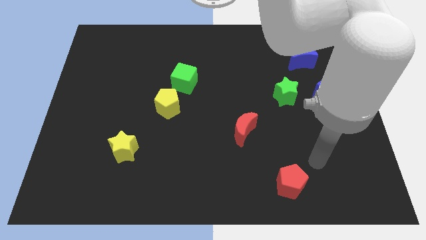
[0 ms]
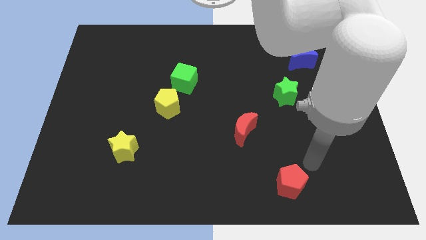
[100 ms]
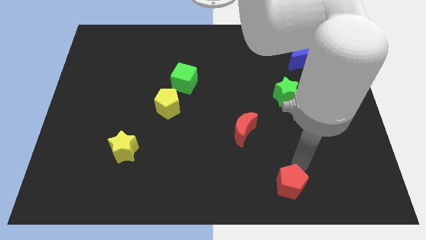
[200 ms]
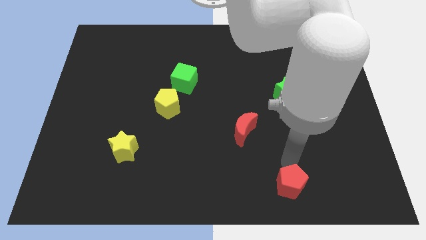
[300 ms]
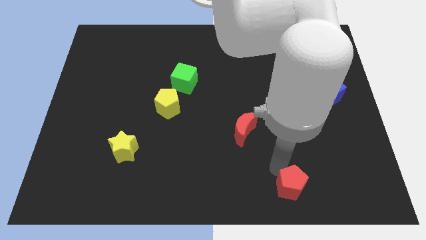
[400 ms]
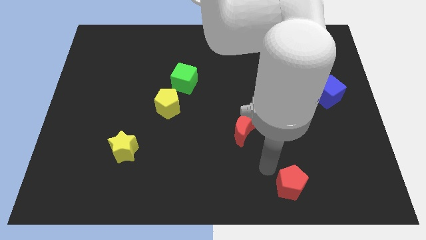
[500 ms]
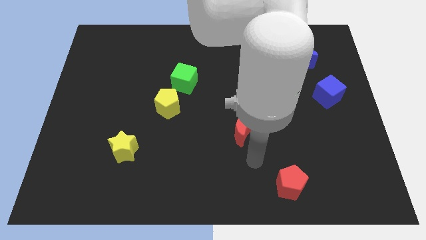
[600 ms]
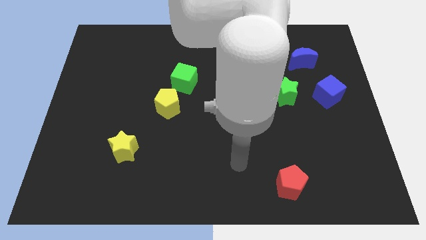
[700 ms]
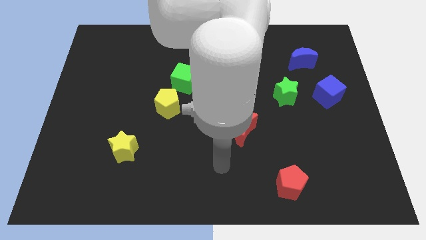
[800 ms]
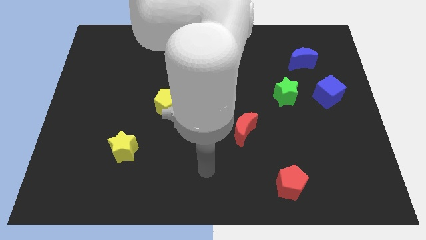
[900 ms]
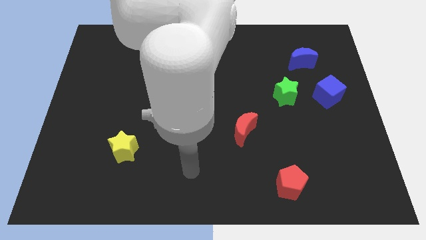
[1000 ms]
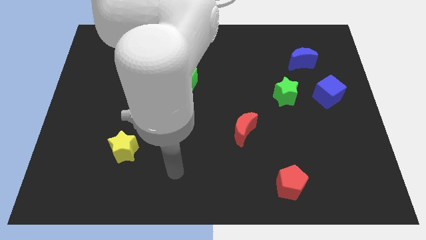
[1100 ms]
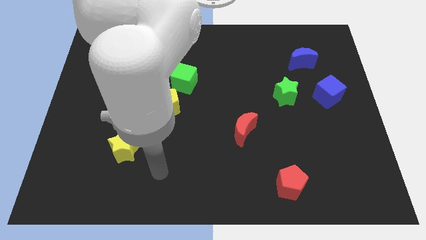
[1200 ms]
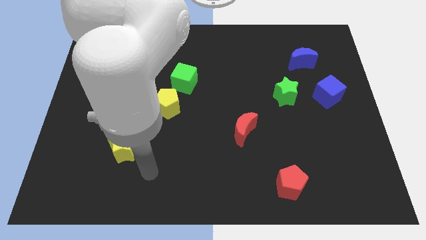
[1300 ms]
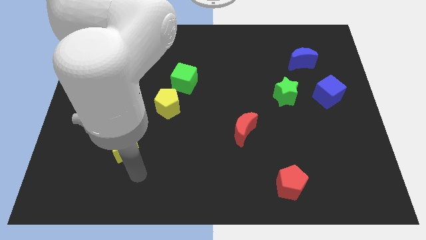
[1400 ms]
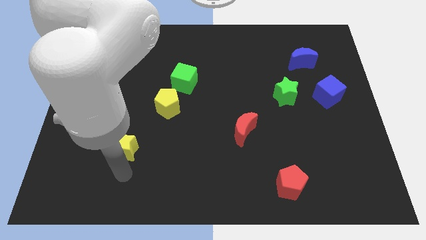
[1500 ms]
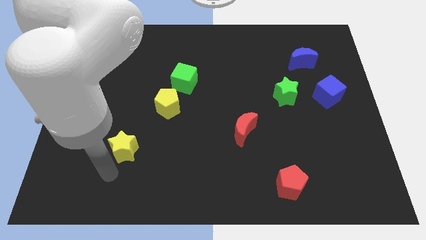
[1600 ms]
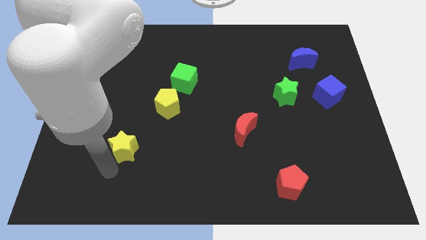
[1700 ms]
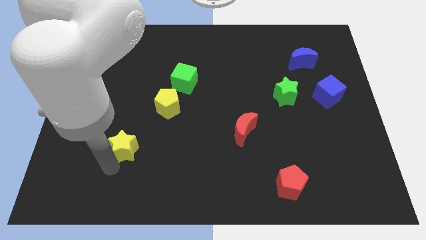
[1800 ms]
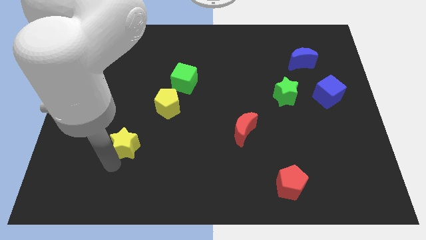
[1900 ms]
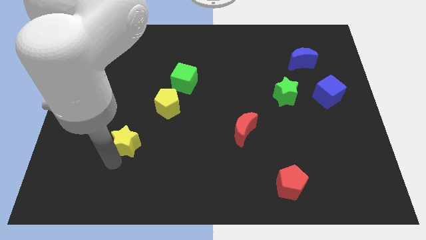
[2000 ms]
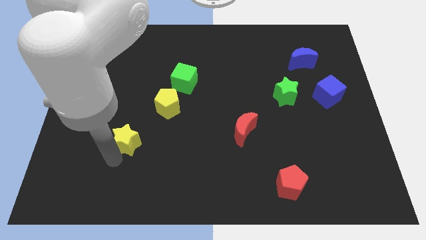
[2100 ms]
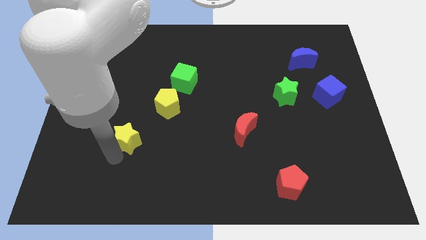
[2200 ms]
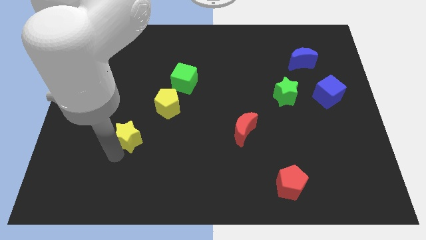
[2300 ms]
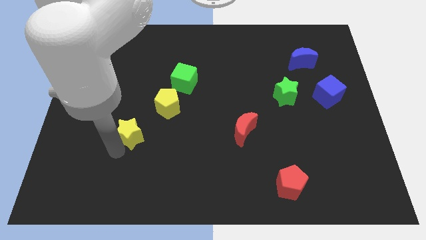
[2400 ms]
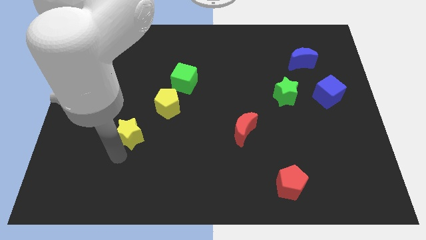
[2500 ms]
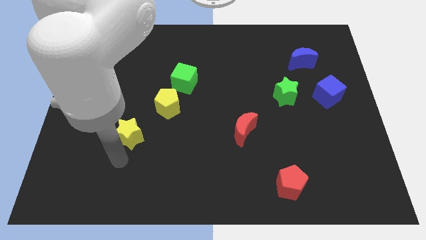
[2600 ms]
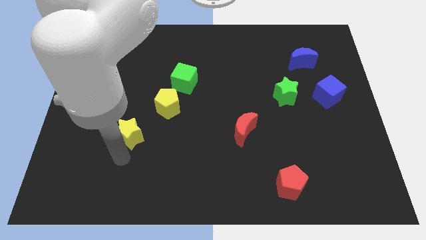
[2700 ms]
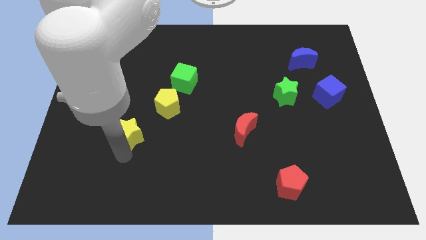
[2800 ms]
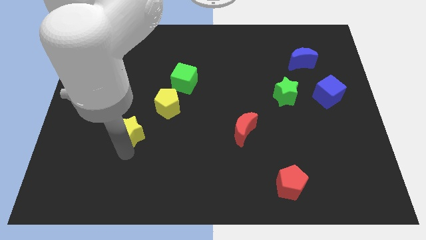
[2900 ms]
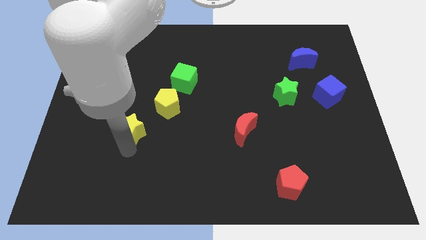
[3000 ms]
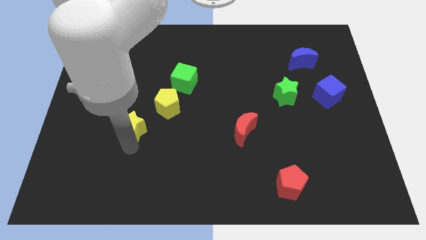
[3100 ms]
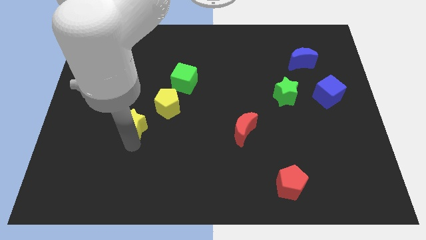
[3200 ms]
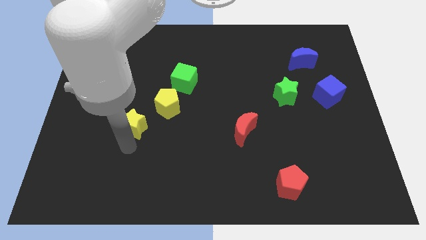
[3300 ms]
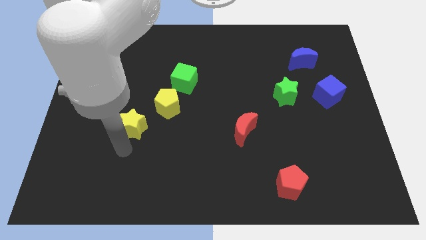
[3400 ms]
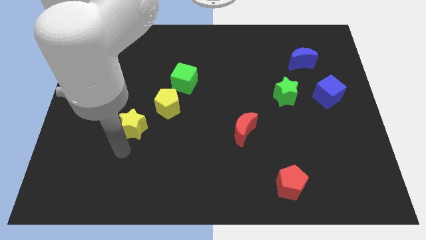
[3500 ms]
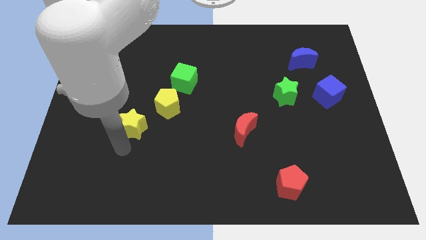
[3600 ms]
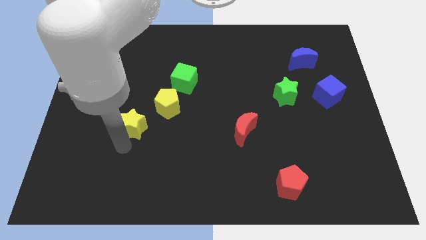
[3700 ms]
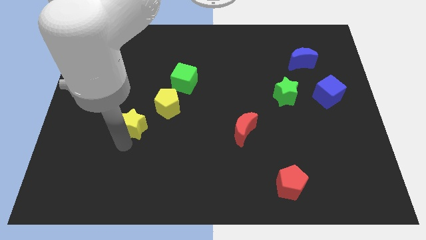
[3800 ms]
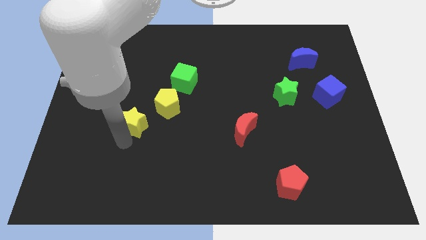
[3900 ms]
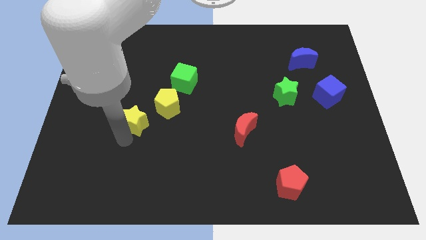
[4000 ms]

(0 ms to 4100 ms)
slide the yellow star upwards a bit

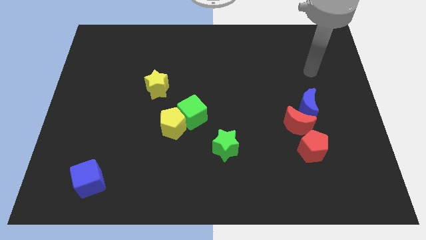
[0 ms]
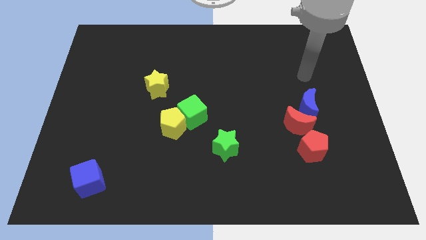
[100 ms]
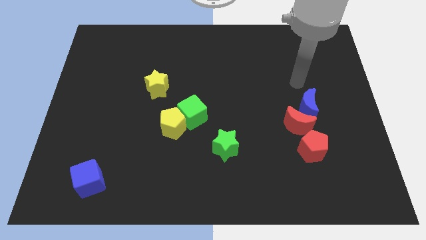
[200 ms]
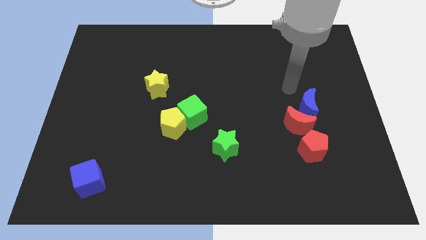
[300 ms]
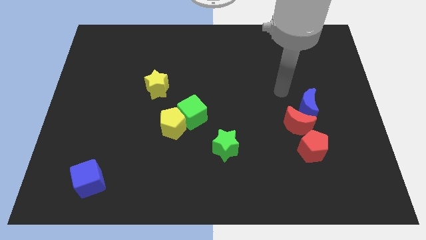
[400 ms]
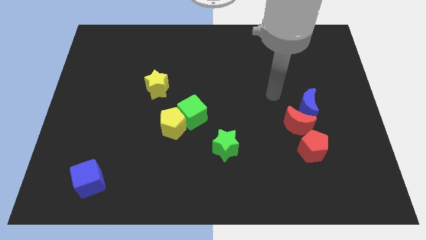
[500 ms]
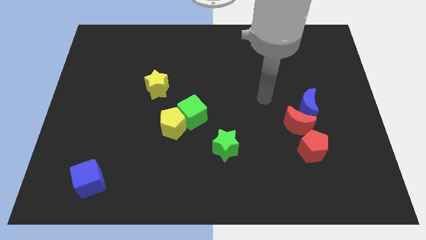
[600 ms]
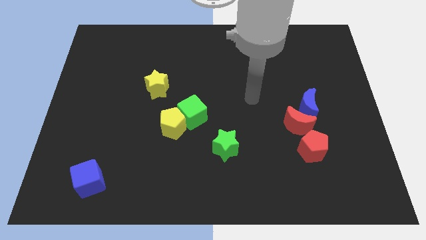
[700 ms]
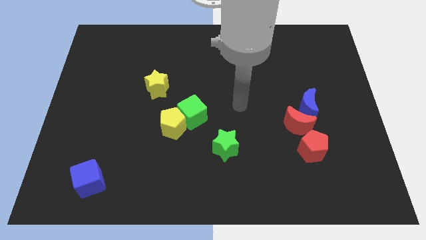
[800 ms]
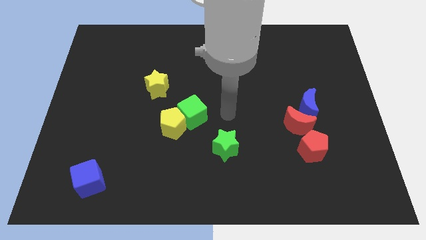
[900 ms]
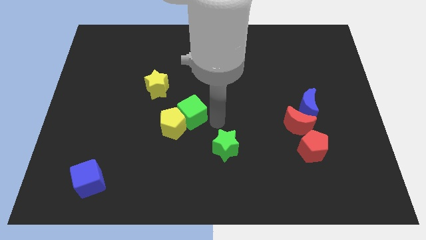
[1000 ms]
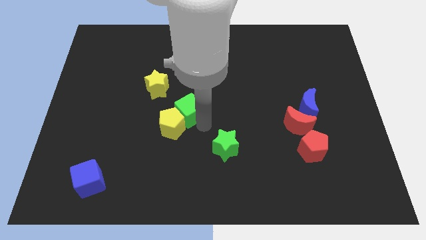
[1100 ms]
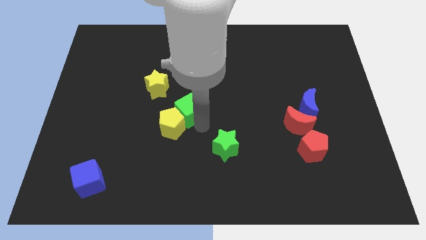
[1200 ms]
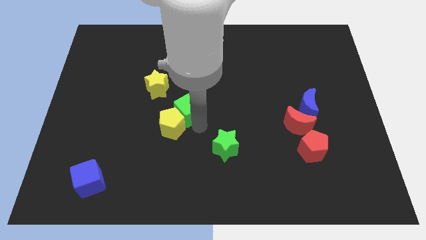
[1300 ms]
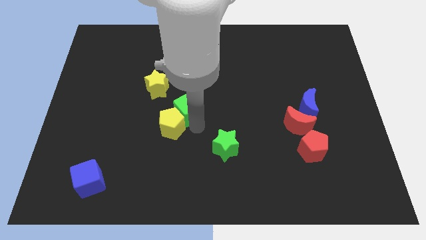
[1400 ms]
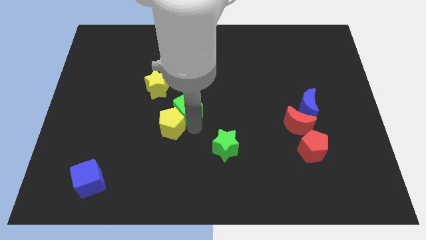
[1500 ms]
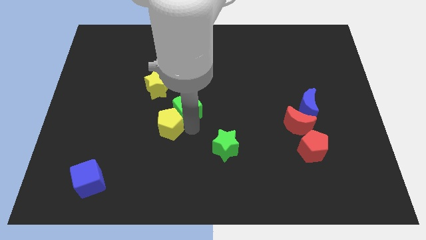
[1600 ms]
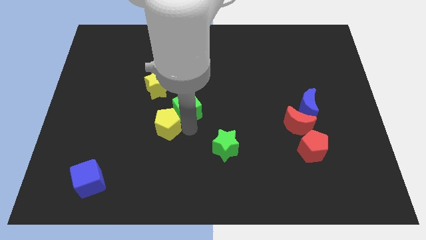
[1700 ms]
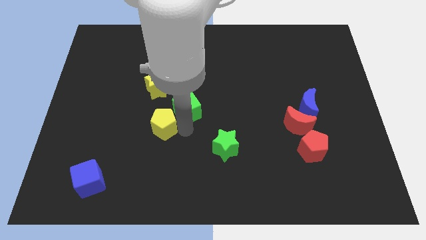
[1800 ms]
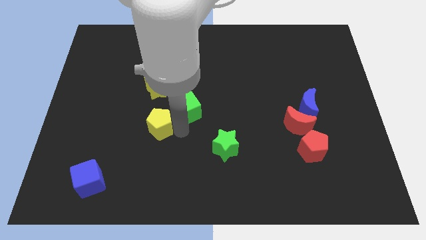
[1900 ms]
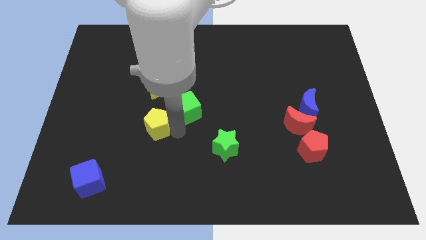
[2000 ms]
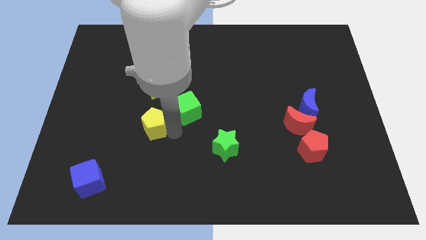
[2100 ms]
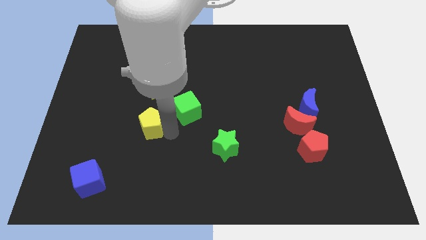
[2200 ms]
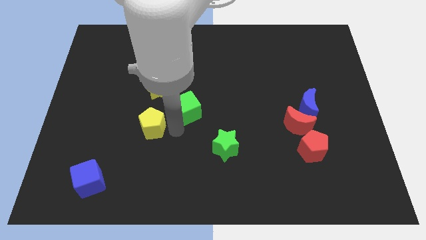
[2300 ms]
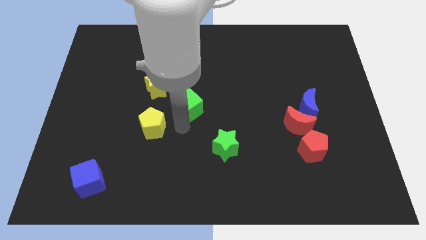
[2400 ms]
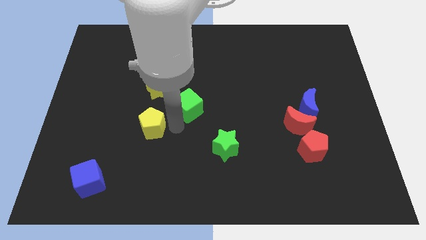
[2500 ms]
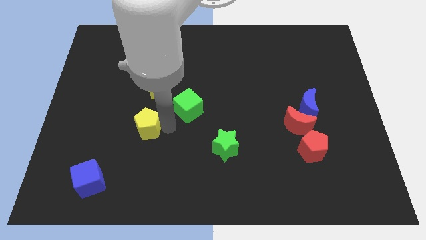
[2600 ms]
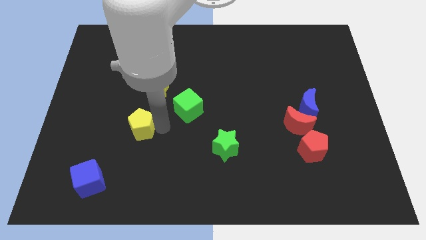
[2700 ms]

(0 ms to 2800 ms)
slightly push the yellow pentagon to the left

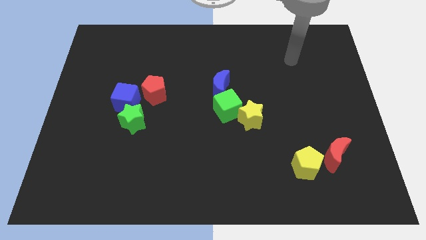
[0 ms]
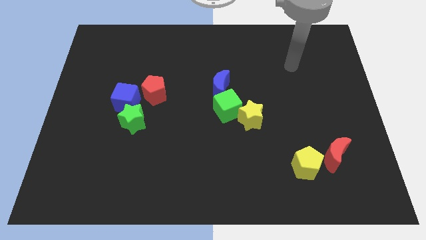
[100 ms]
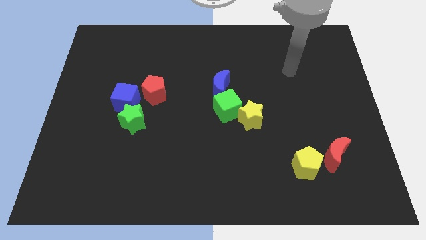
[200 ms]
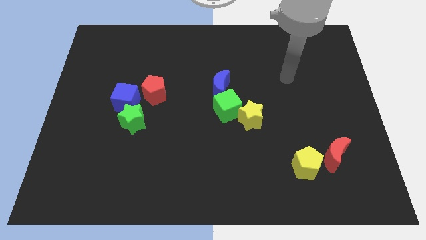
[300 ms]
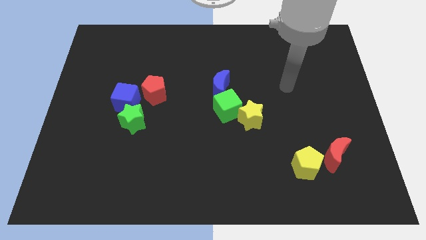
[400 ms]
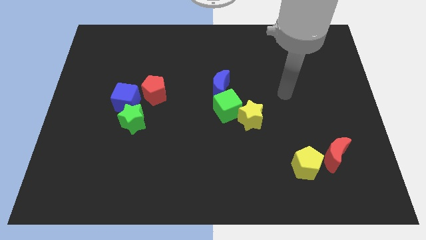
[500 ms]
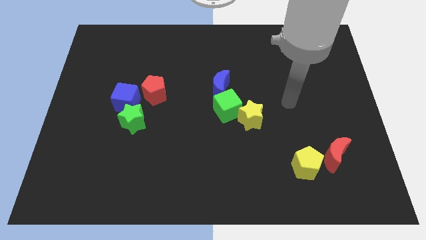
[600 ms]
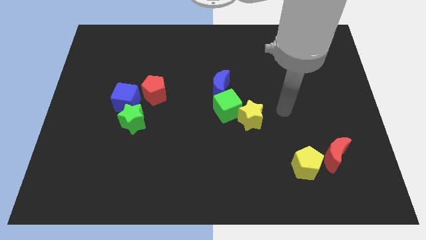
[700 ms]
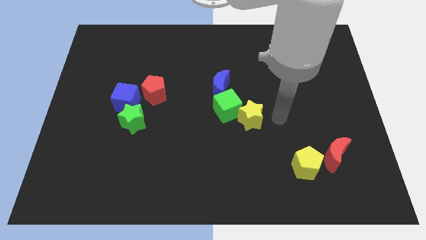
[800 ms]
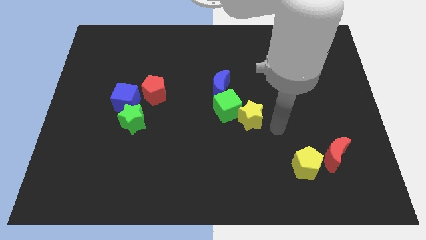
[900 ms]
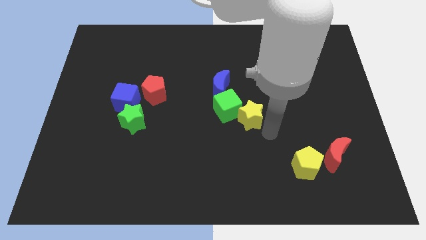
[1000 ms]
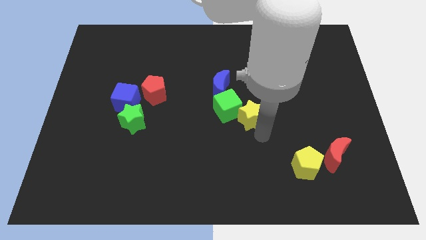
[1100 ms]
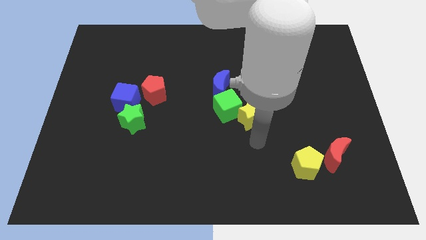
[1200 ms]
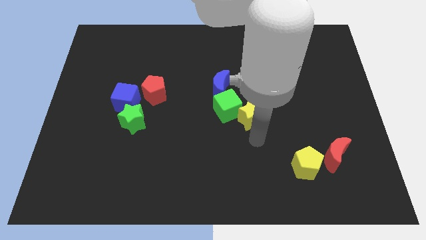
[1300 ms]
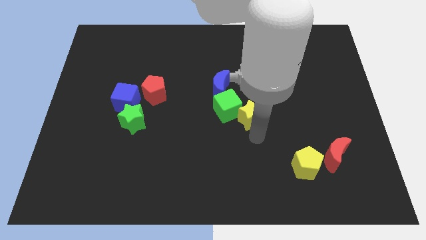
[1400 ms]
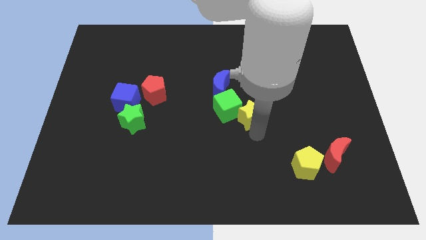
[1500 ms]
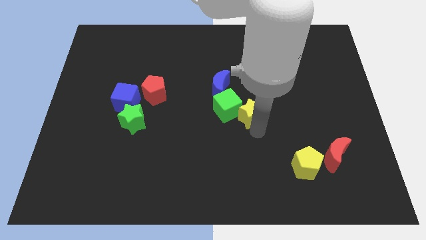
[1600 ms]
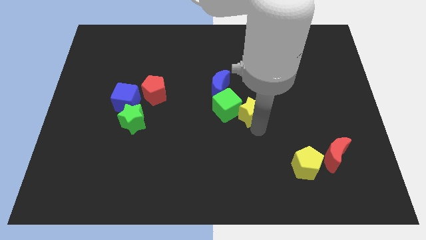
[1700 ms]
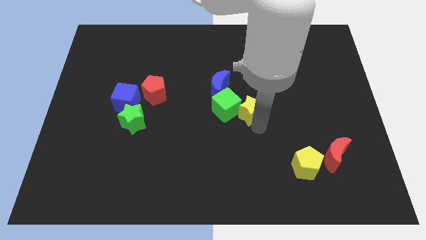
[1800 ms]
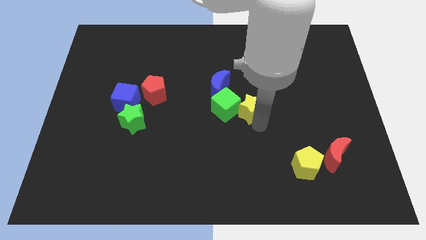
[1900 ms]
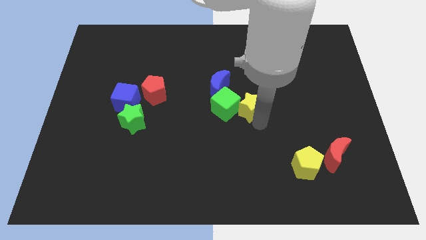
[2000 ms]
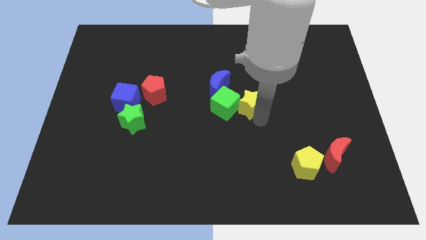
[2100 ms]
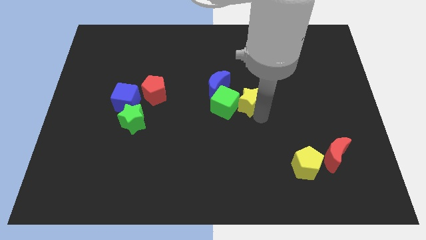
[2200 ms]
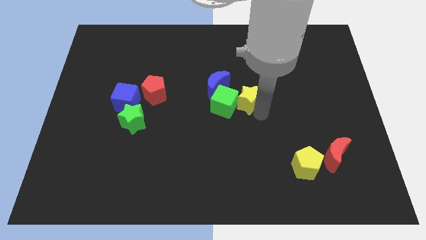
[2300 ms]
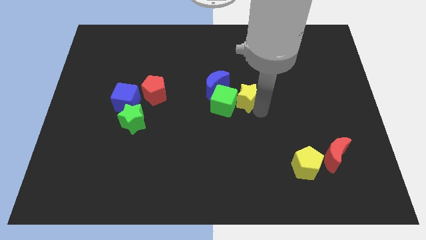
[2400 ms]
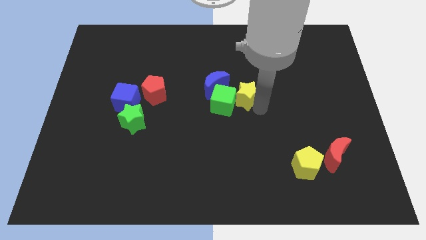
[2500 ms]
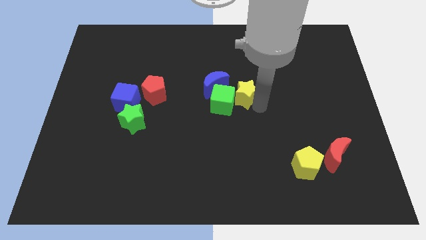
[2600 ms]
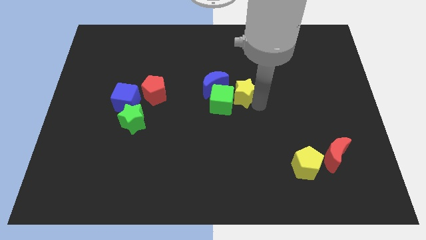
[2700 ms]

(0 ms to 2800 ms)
slide the yellow star upwards a little bit
